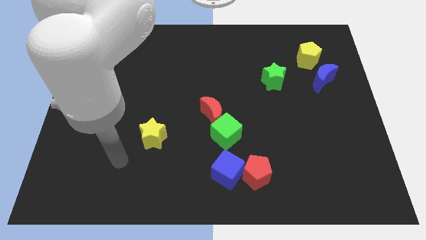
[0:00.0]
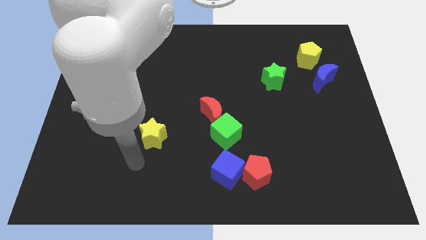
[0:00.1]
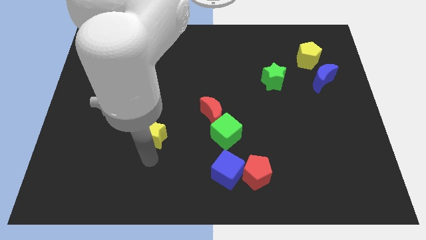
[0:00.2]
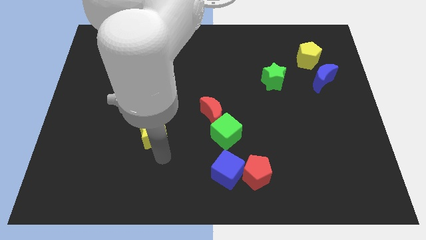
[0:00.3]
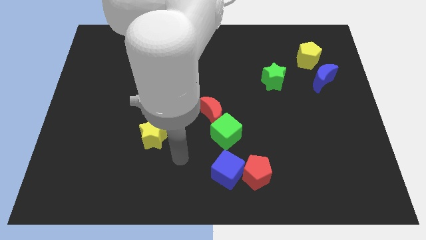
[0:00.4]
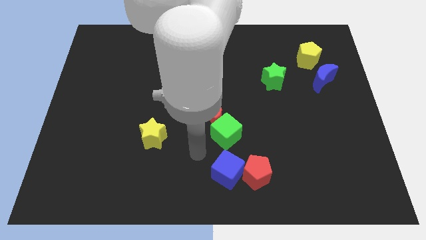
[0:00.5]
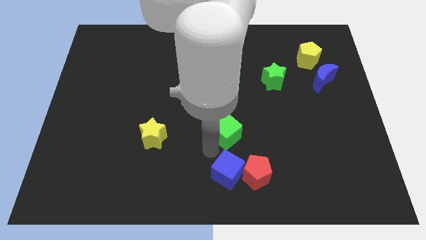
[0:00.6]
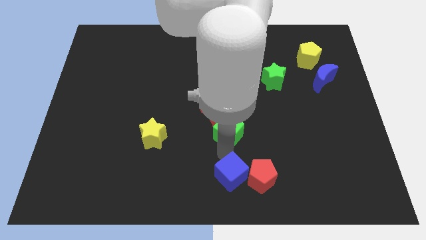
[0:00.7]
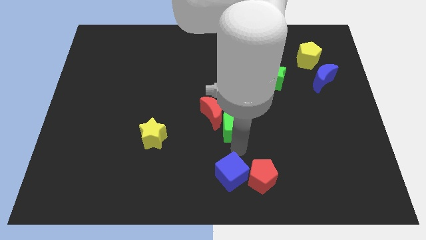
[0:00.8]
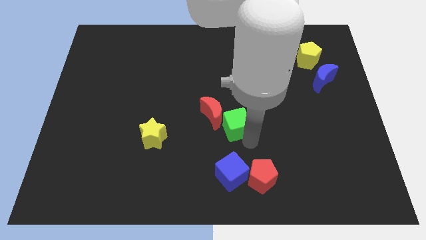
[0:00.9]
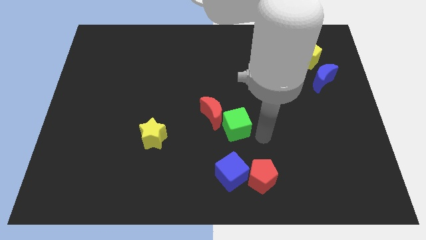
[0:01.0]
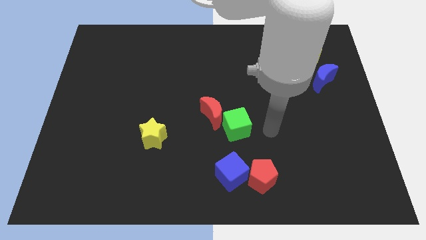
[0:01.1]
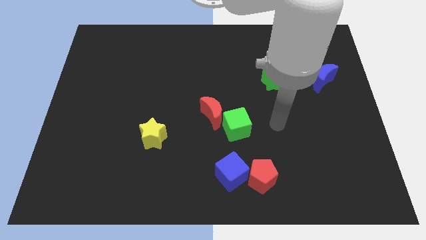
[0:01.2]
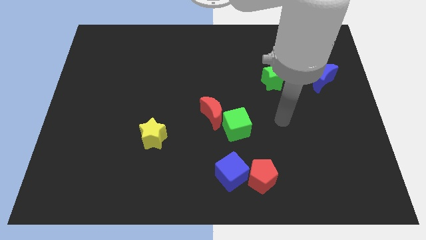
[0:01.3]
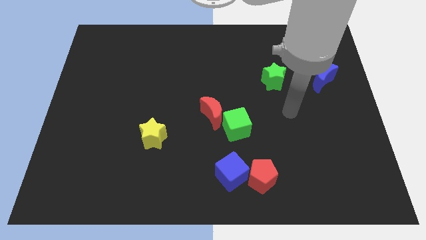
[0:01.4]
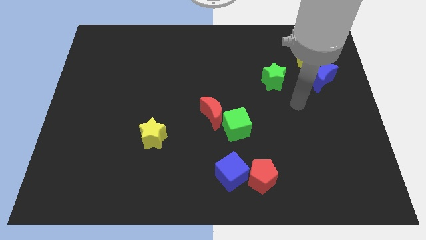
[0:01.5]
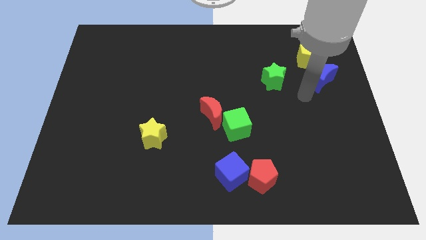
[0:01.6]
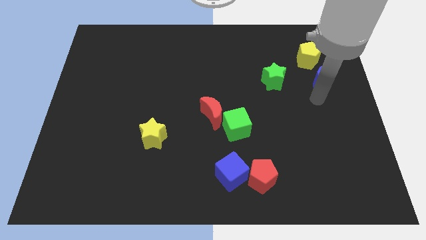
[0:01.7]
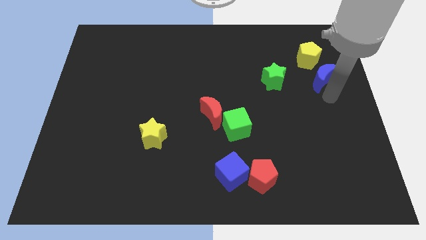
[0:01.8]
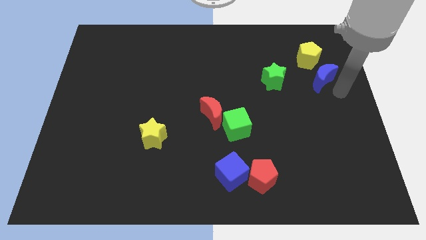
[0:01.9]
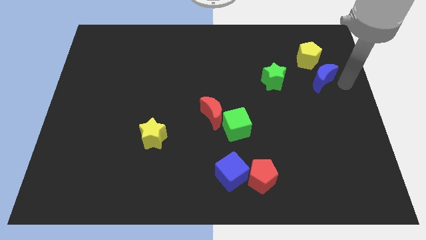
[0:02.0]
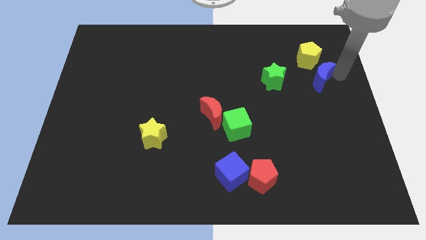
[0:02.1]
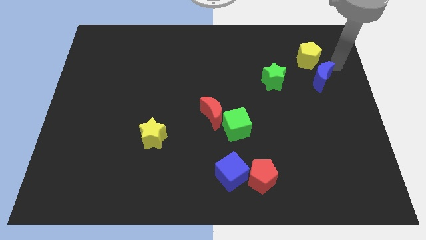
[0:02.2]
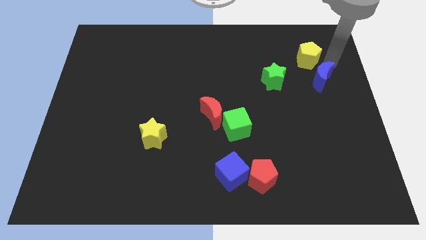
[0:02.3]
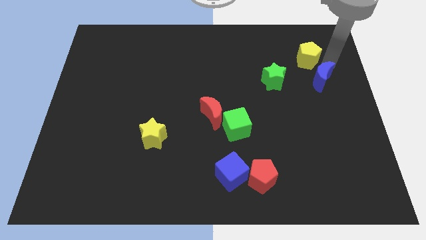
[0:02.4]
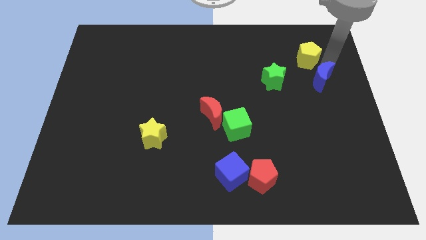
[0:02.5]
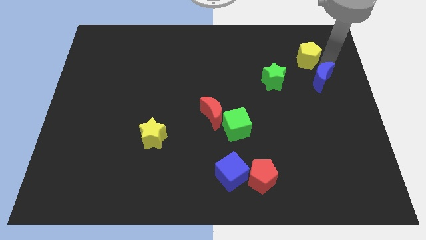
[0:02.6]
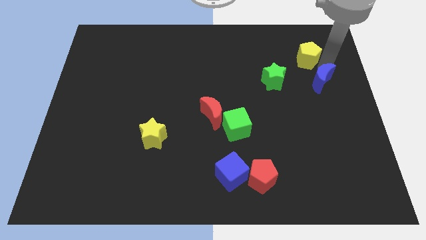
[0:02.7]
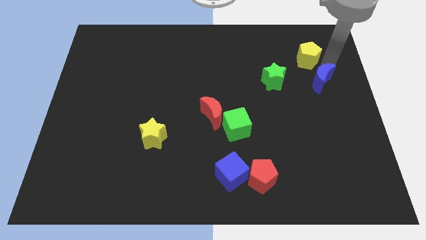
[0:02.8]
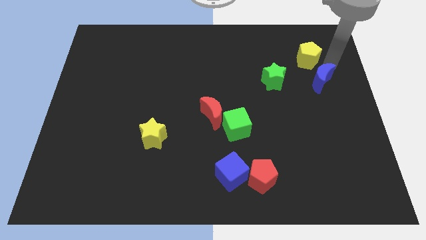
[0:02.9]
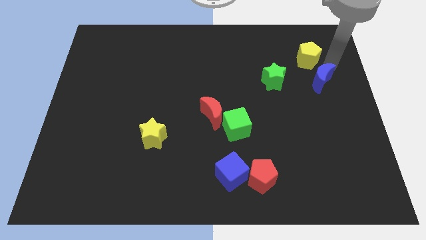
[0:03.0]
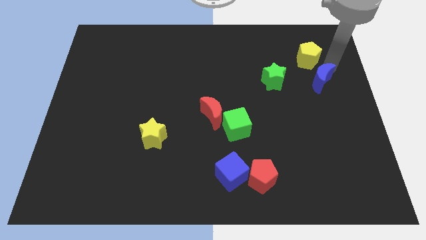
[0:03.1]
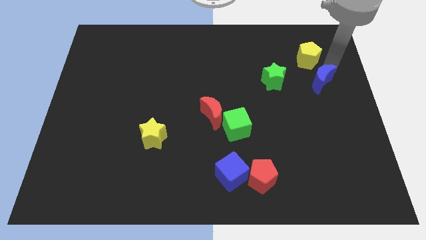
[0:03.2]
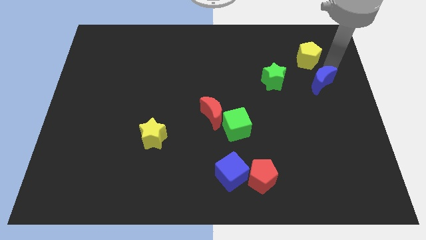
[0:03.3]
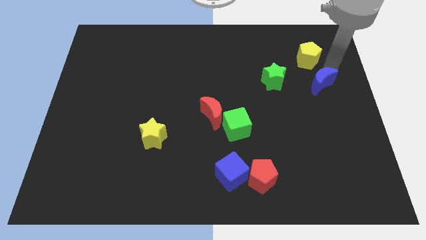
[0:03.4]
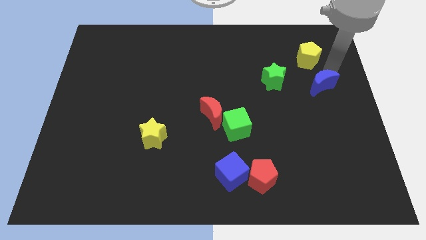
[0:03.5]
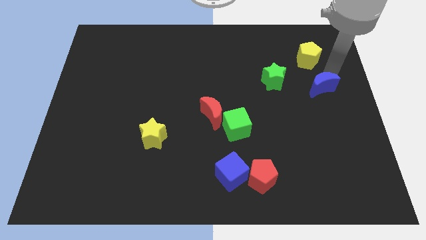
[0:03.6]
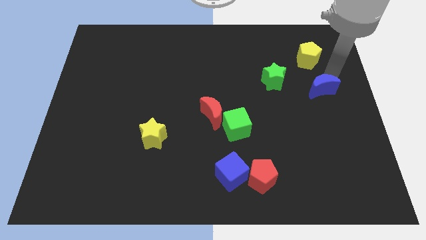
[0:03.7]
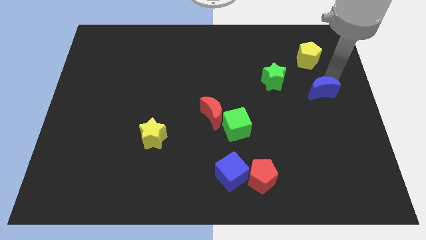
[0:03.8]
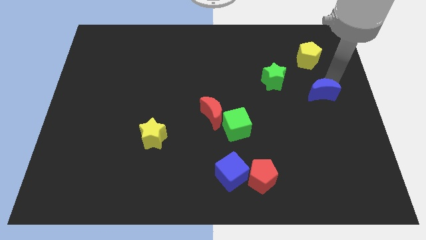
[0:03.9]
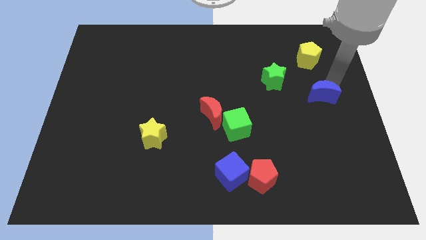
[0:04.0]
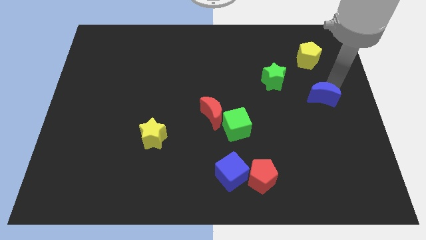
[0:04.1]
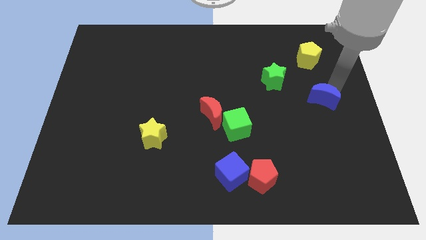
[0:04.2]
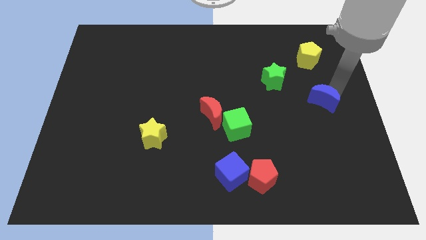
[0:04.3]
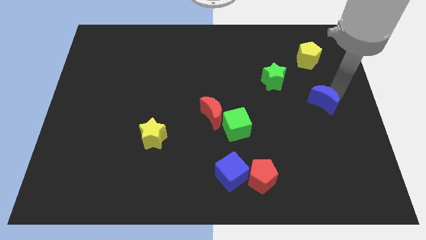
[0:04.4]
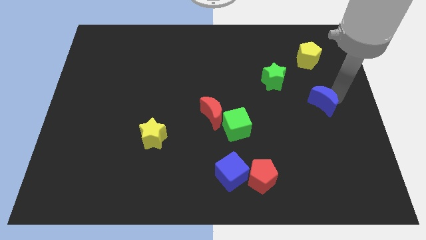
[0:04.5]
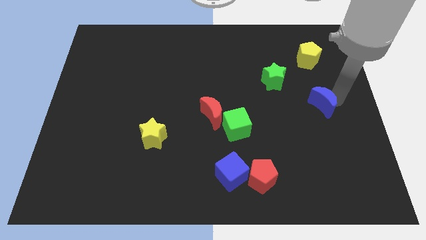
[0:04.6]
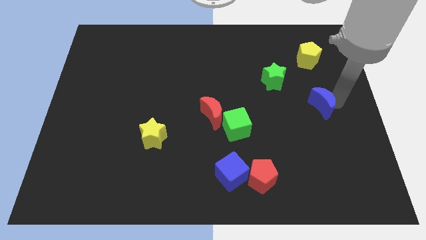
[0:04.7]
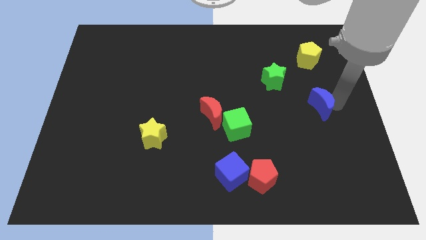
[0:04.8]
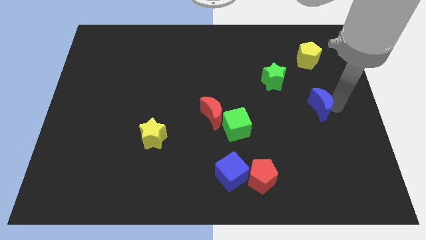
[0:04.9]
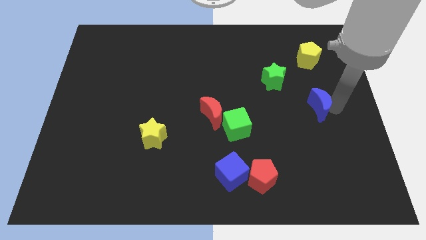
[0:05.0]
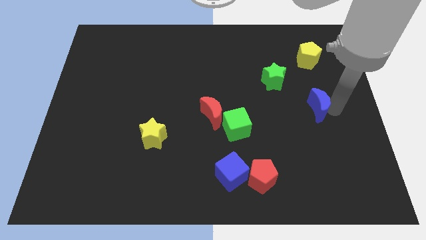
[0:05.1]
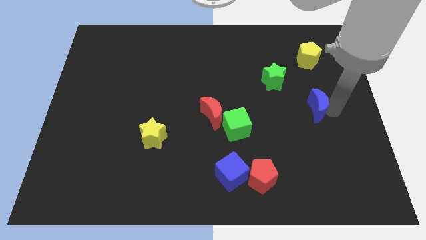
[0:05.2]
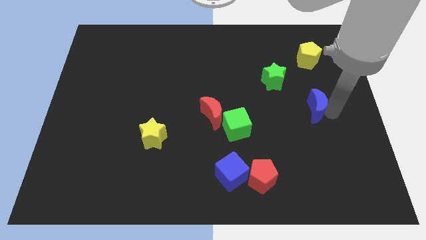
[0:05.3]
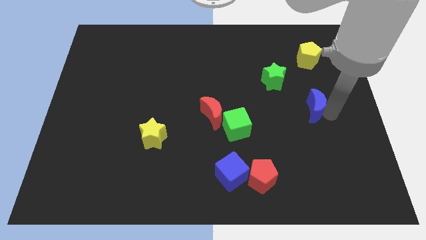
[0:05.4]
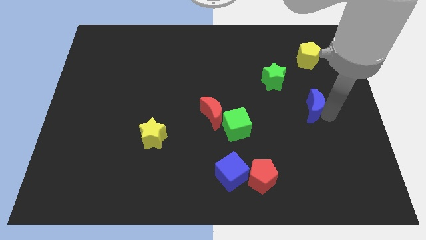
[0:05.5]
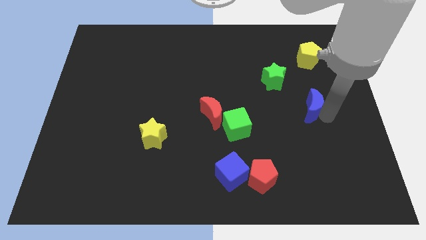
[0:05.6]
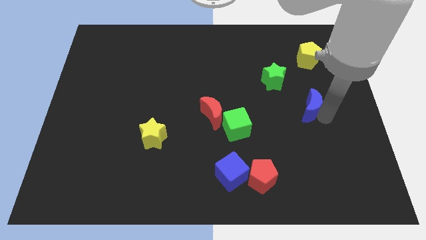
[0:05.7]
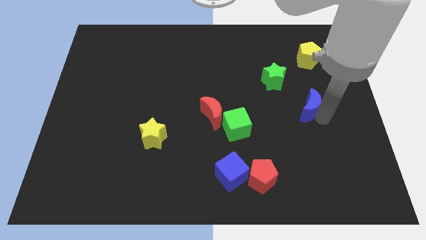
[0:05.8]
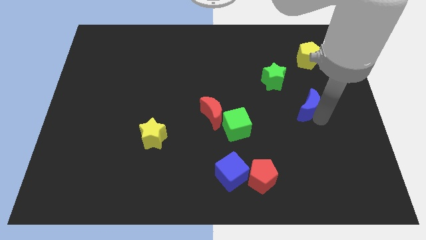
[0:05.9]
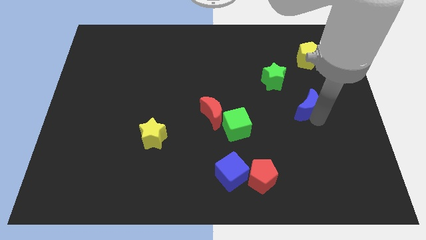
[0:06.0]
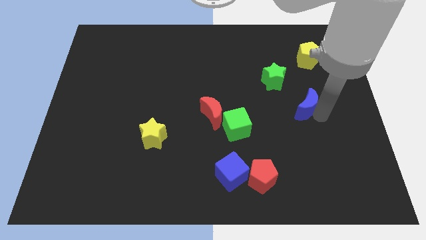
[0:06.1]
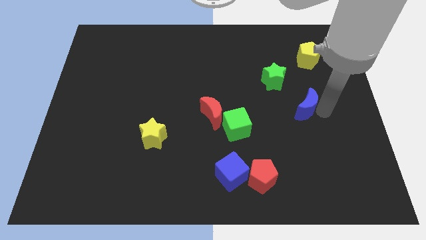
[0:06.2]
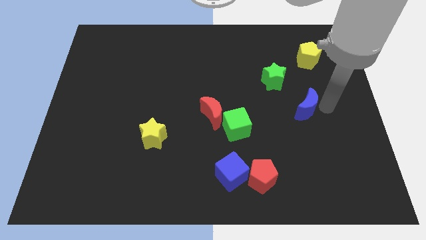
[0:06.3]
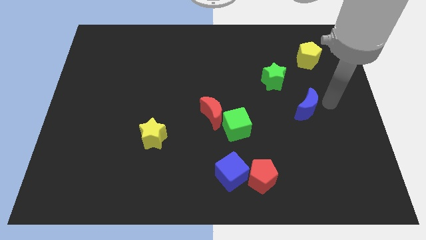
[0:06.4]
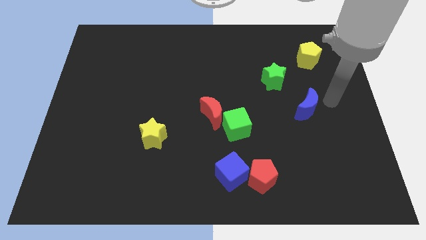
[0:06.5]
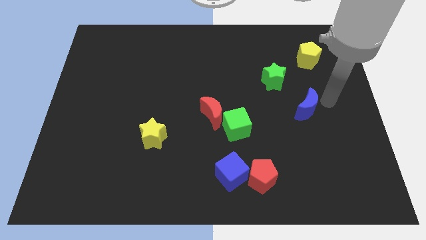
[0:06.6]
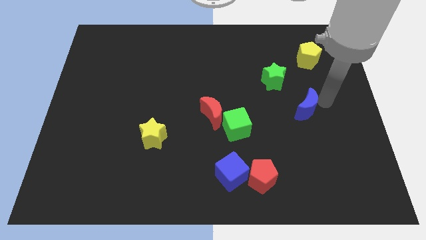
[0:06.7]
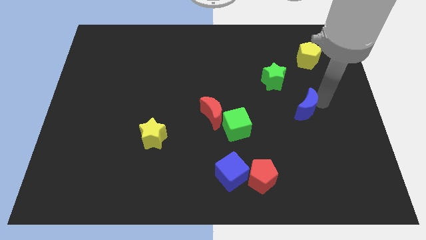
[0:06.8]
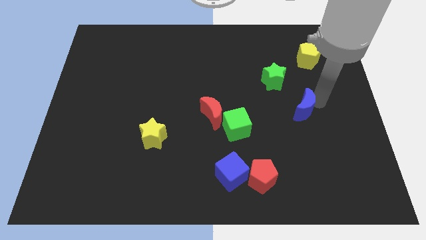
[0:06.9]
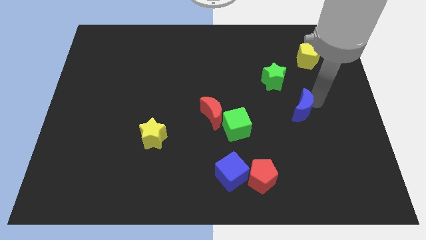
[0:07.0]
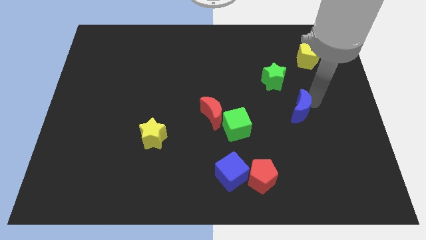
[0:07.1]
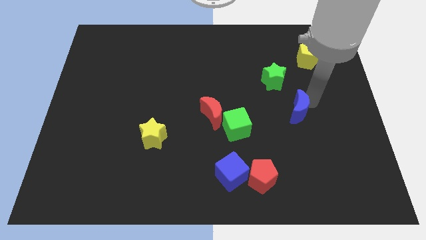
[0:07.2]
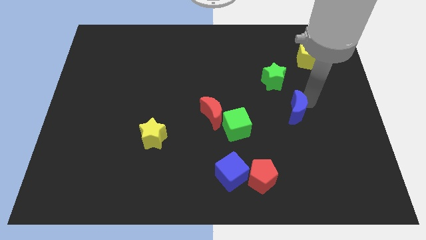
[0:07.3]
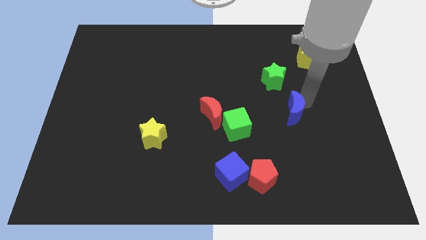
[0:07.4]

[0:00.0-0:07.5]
put the blue moon right of the green cube
